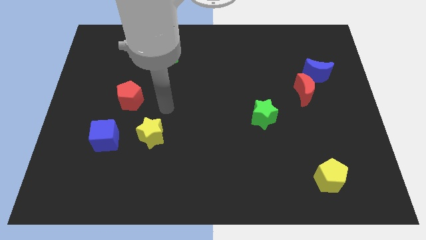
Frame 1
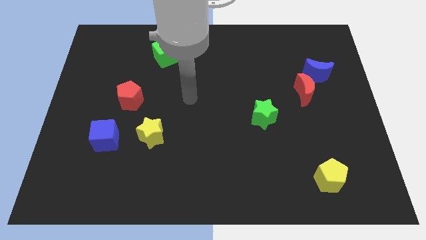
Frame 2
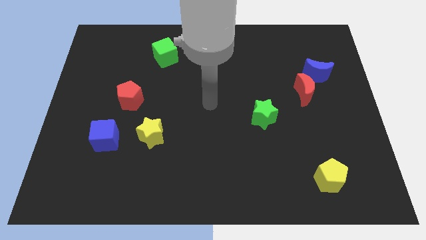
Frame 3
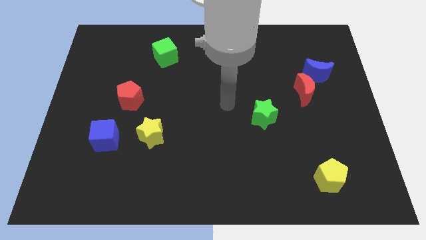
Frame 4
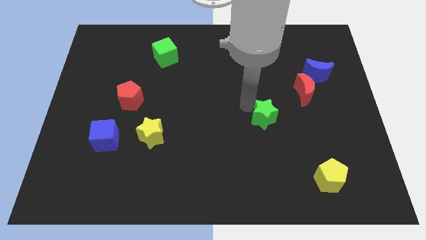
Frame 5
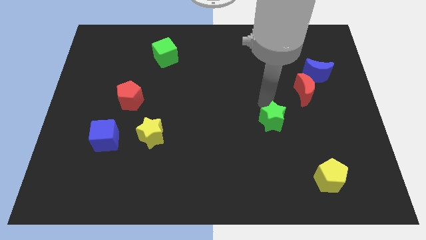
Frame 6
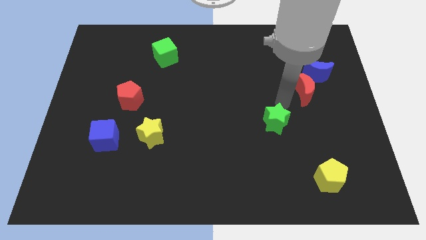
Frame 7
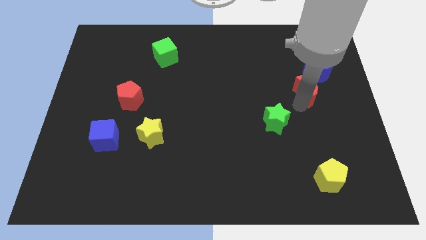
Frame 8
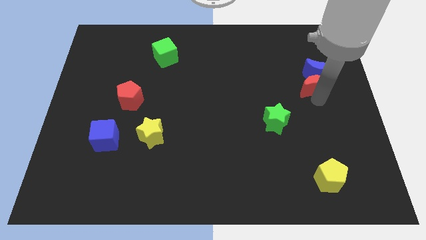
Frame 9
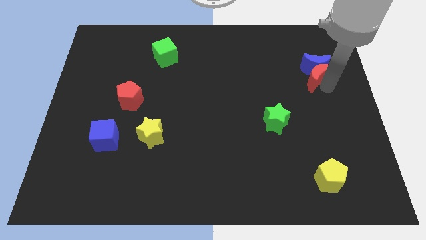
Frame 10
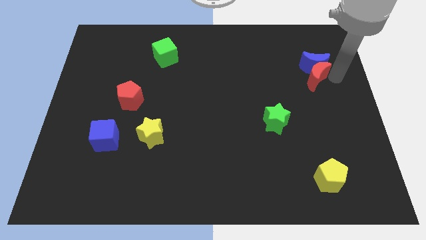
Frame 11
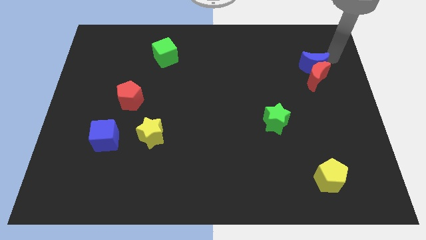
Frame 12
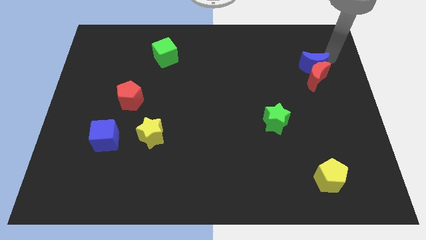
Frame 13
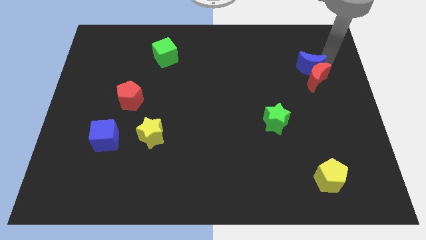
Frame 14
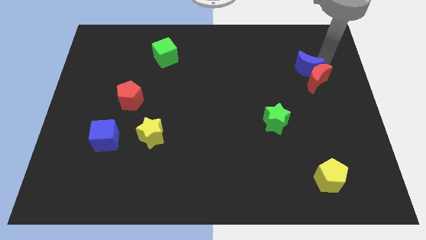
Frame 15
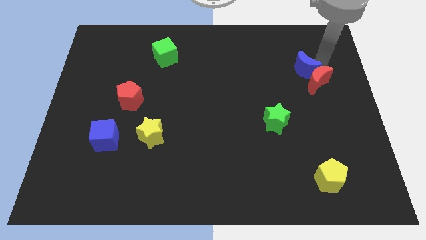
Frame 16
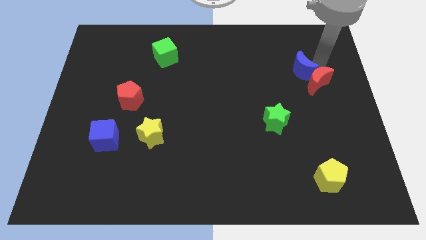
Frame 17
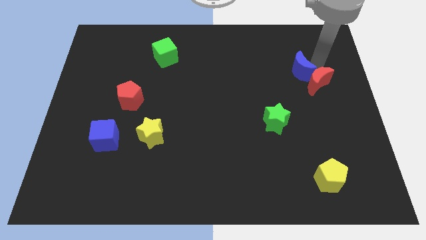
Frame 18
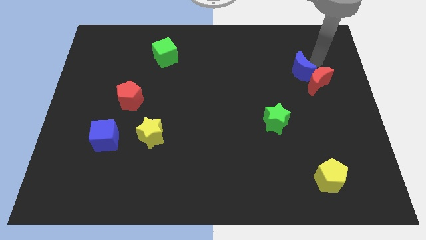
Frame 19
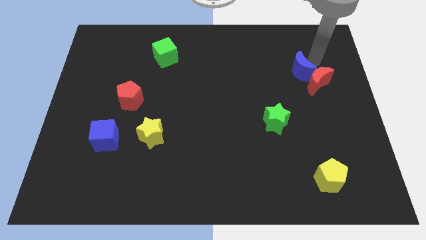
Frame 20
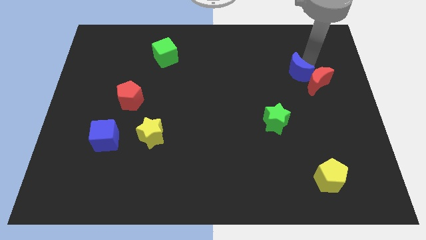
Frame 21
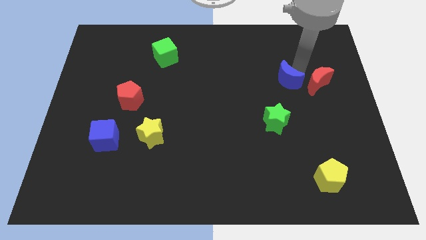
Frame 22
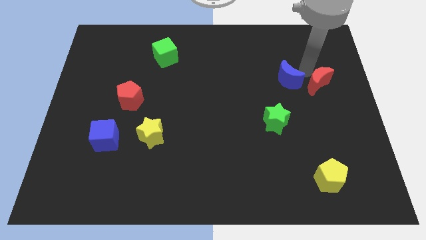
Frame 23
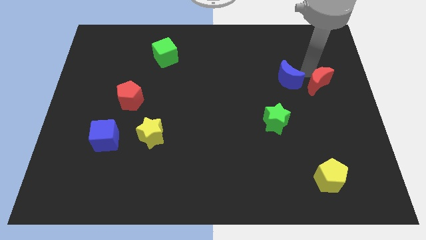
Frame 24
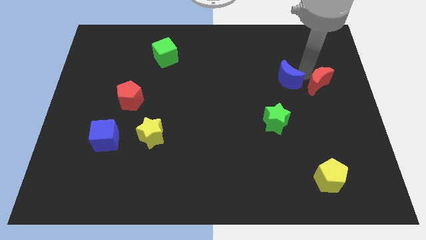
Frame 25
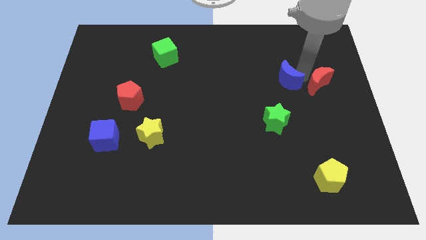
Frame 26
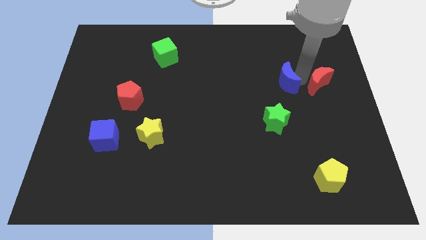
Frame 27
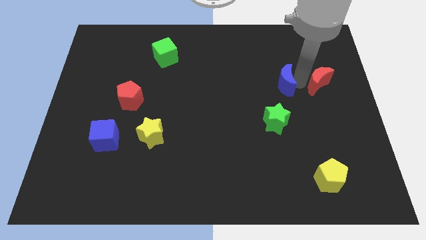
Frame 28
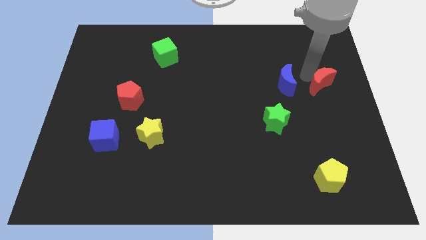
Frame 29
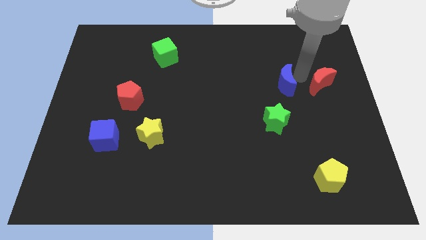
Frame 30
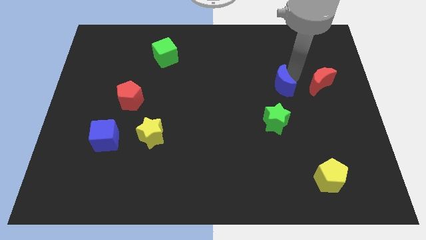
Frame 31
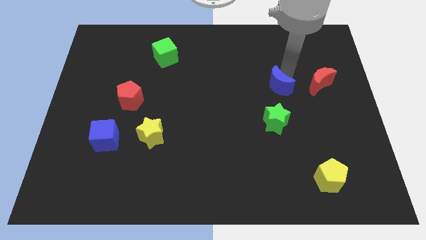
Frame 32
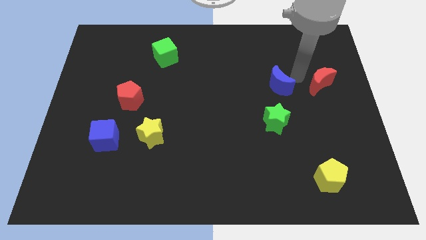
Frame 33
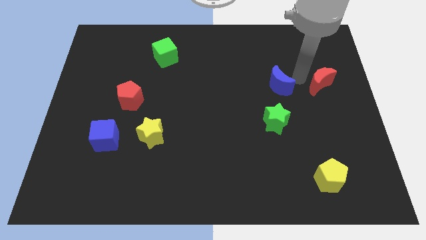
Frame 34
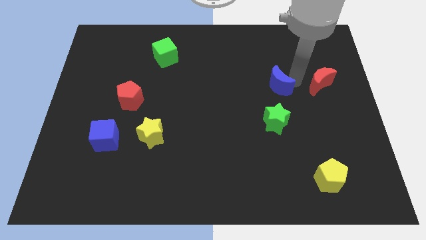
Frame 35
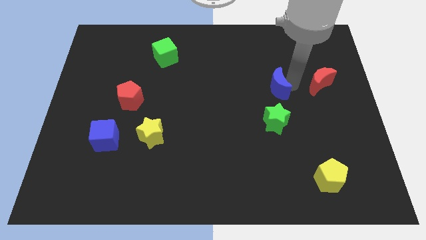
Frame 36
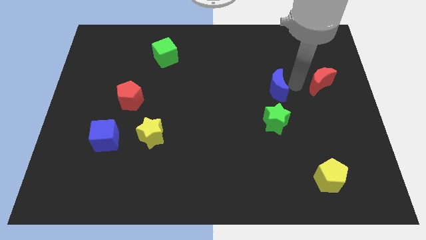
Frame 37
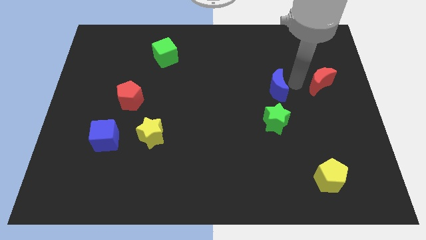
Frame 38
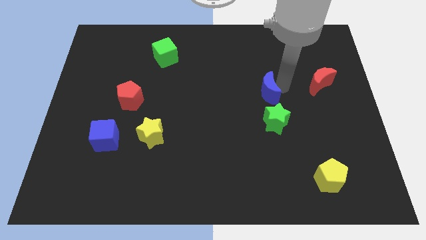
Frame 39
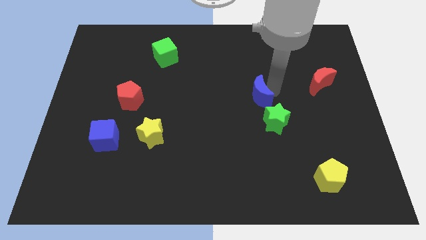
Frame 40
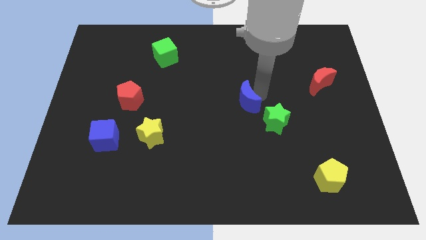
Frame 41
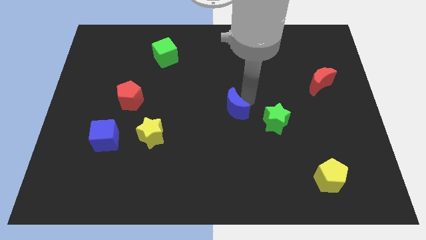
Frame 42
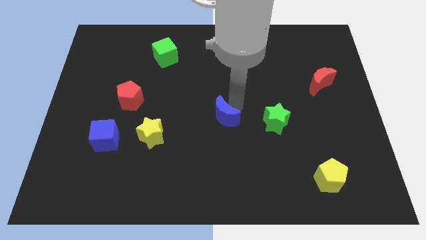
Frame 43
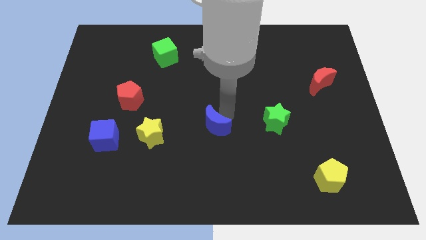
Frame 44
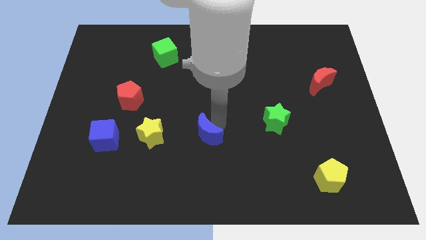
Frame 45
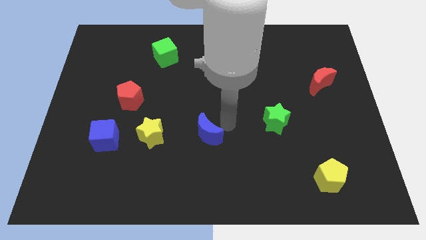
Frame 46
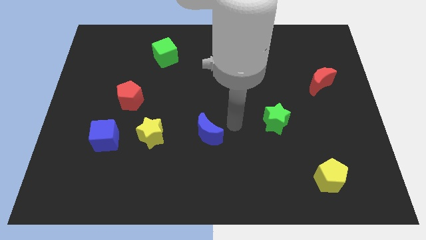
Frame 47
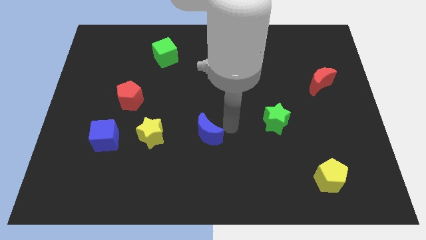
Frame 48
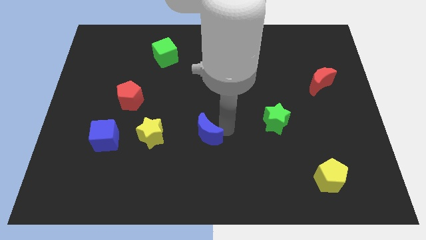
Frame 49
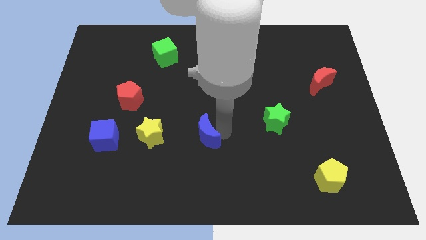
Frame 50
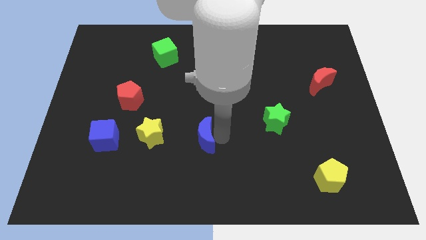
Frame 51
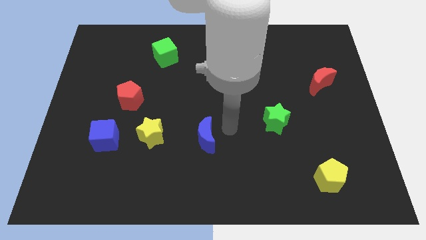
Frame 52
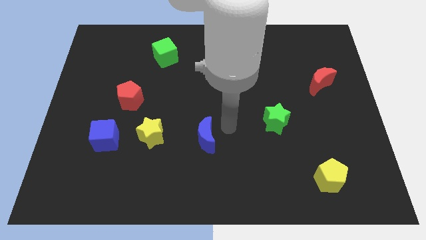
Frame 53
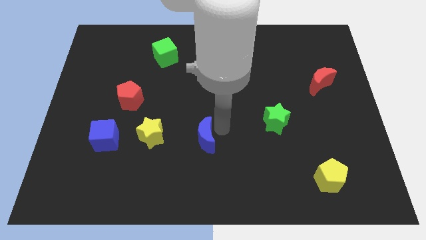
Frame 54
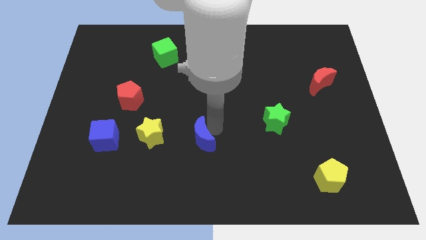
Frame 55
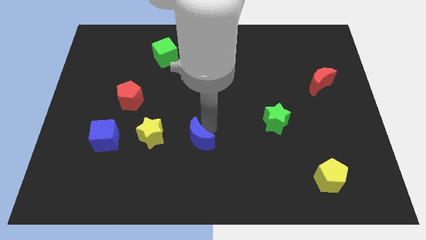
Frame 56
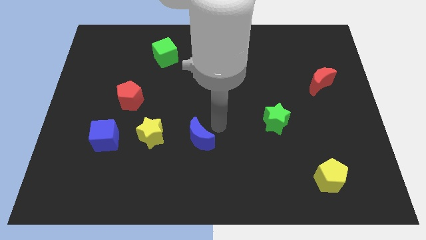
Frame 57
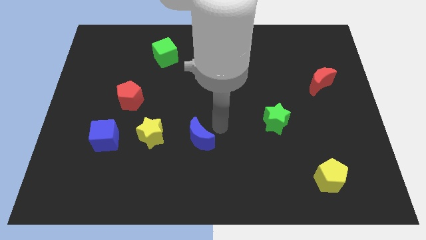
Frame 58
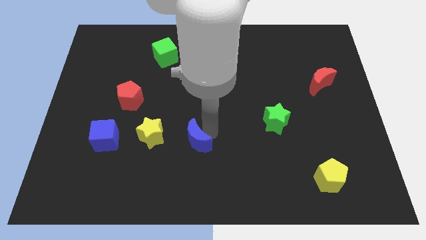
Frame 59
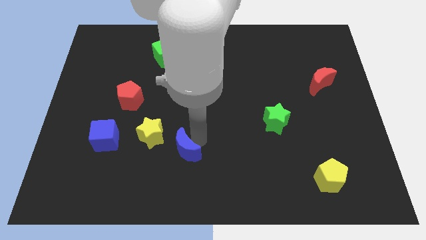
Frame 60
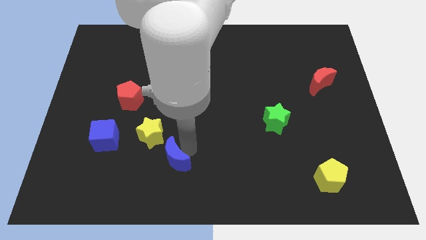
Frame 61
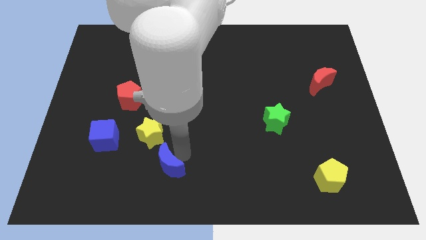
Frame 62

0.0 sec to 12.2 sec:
put the blue moon below the yellow star

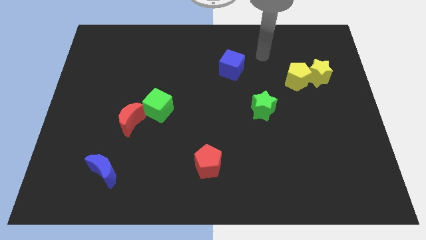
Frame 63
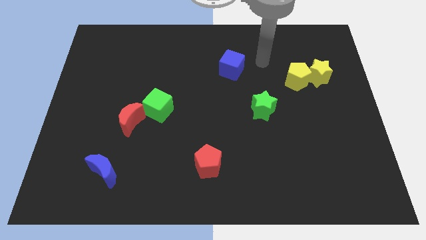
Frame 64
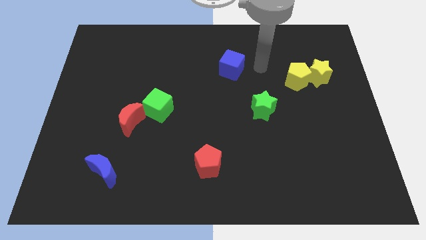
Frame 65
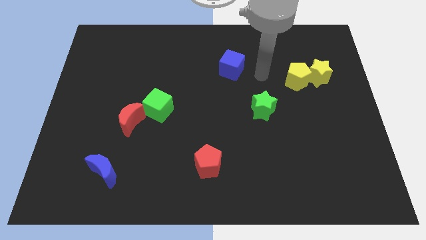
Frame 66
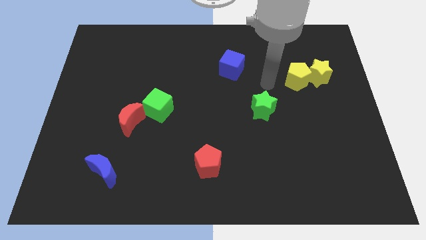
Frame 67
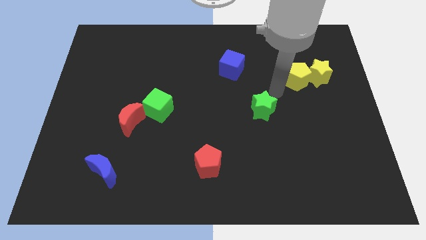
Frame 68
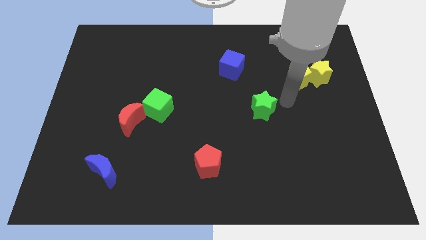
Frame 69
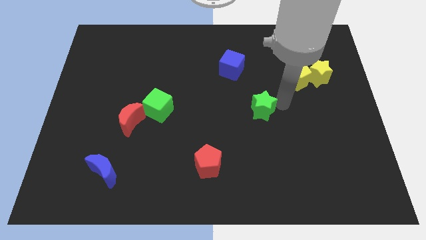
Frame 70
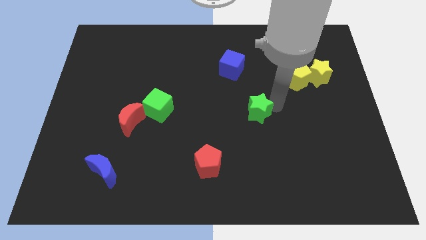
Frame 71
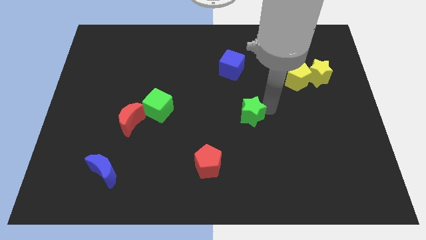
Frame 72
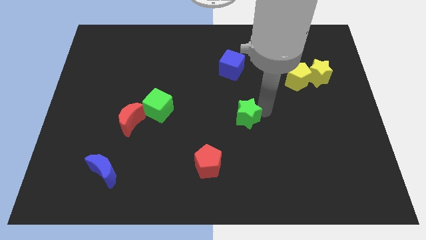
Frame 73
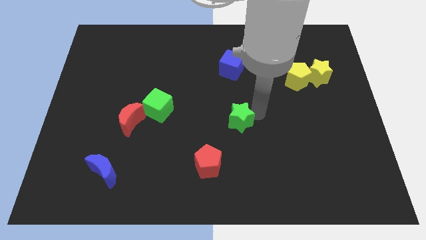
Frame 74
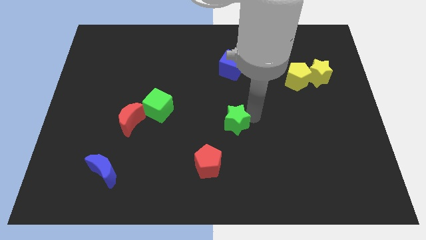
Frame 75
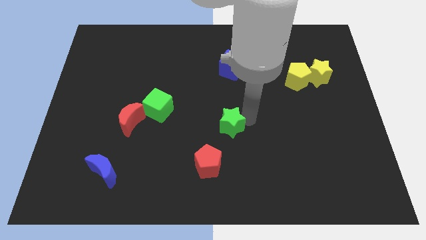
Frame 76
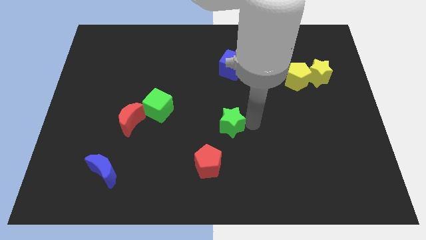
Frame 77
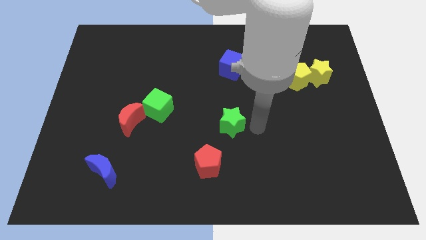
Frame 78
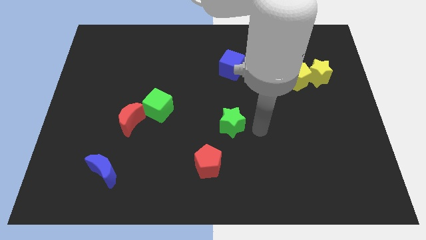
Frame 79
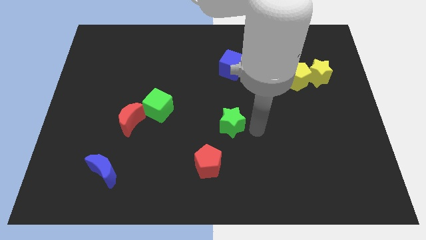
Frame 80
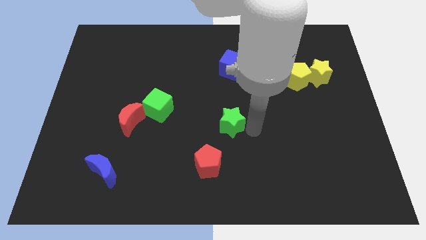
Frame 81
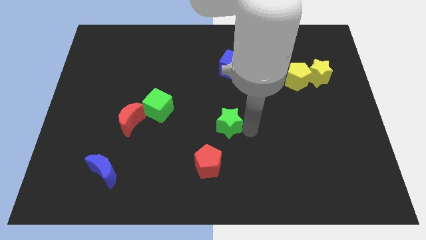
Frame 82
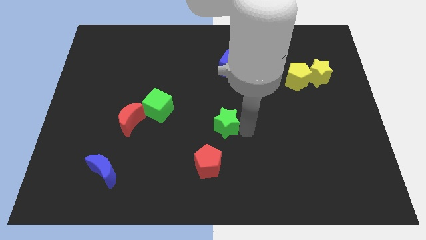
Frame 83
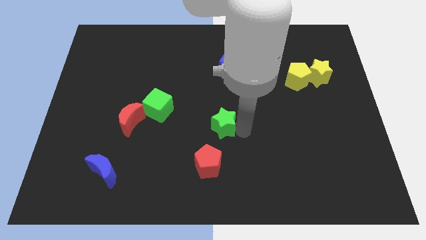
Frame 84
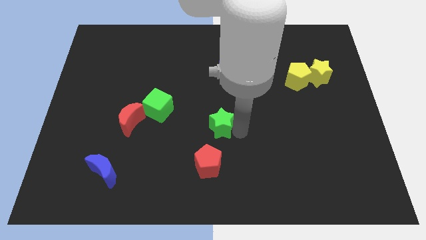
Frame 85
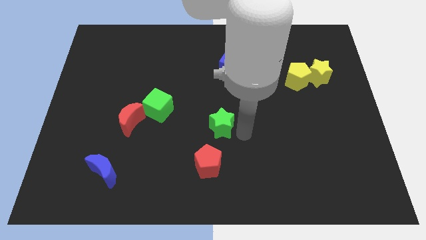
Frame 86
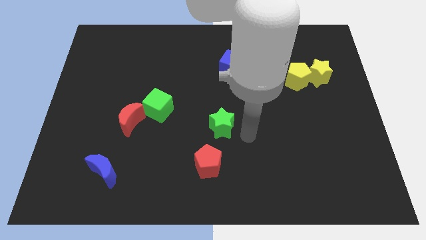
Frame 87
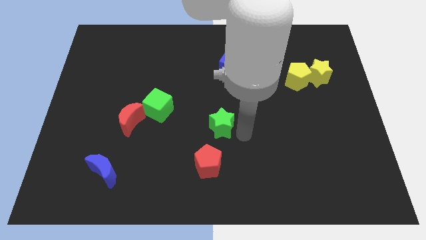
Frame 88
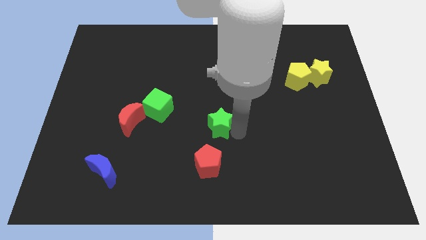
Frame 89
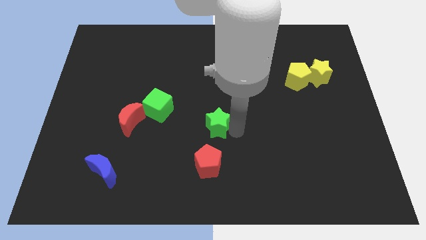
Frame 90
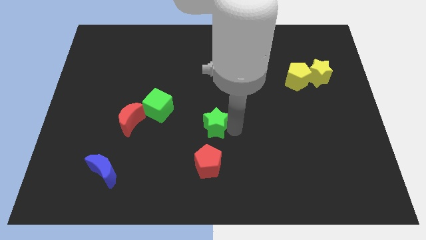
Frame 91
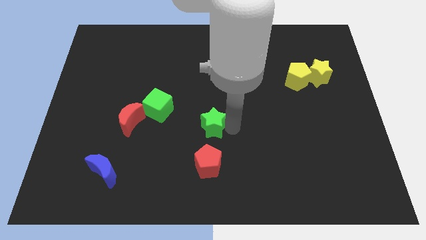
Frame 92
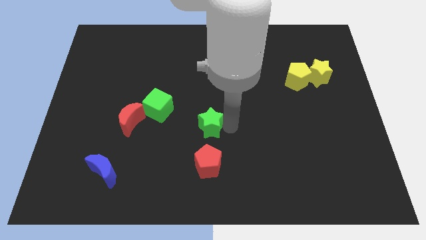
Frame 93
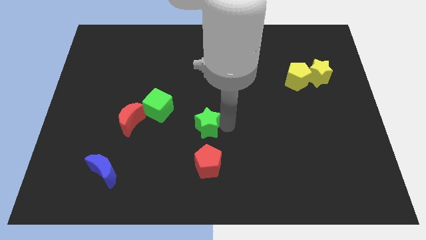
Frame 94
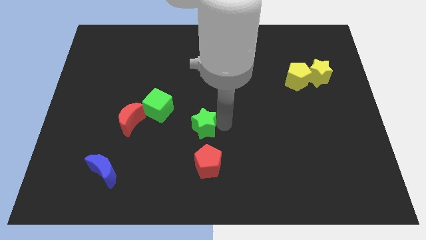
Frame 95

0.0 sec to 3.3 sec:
push the green star to the bottom right side of the green cube
